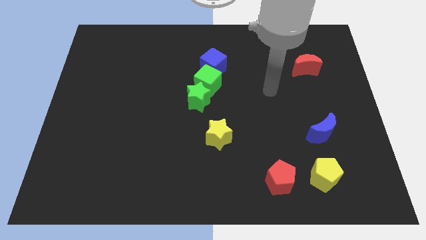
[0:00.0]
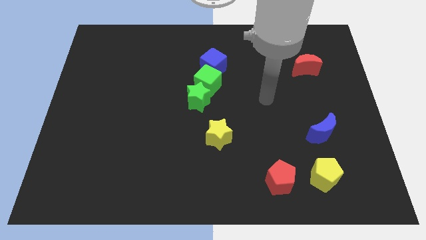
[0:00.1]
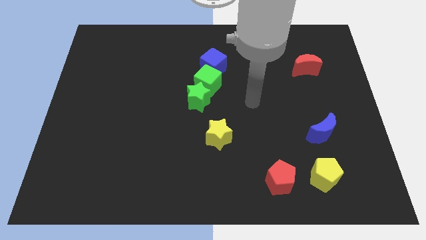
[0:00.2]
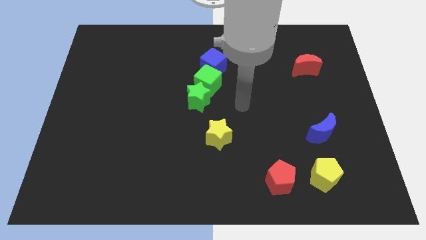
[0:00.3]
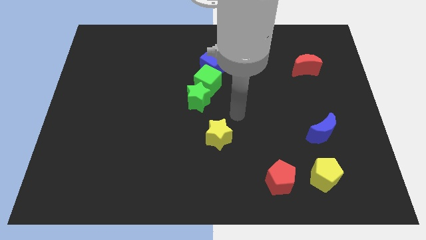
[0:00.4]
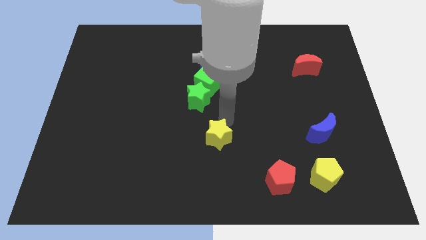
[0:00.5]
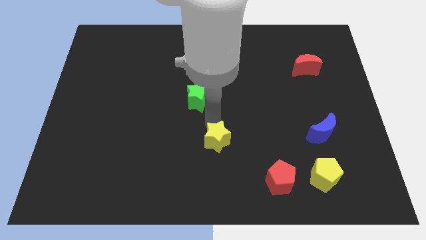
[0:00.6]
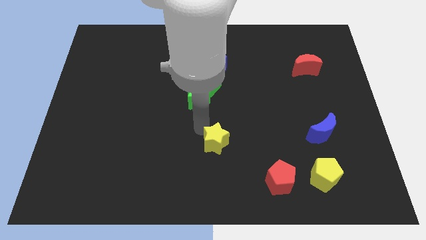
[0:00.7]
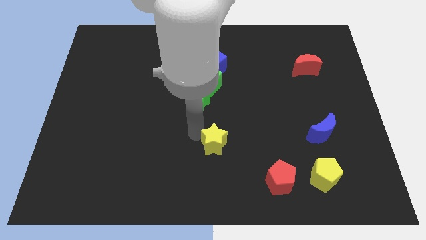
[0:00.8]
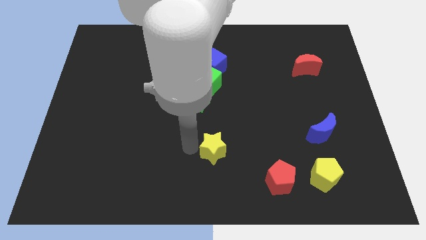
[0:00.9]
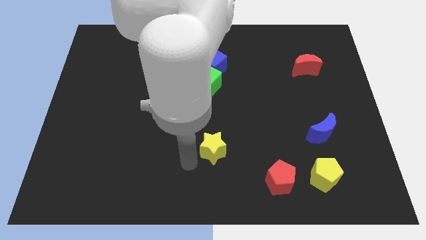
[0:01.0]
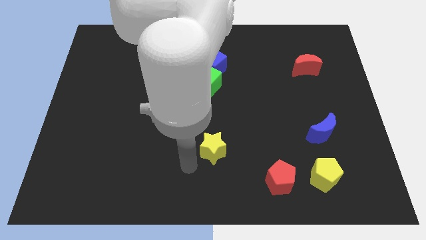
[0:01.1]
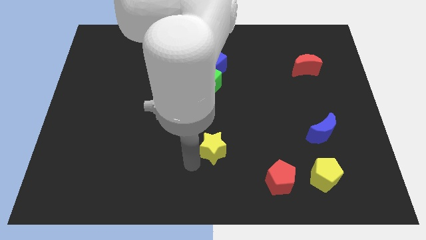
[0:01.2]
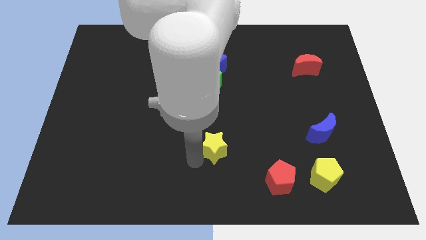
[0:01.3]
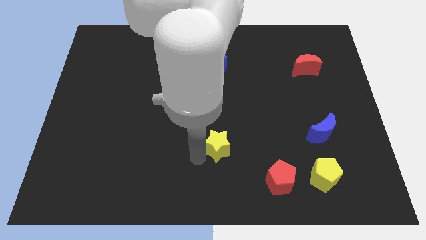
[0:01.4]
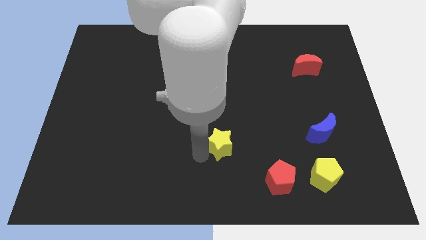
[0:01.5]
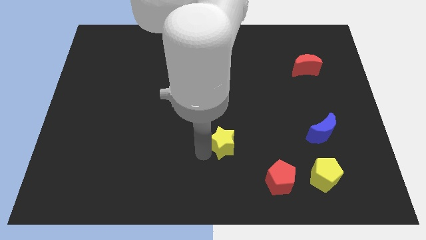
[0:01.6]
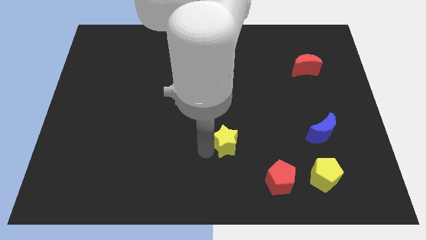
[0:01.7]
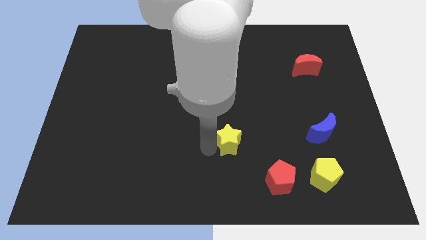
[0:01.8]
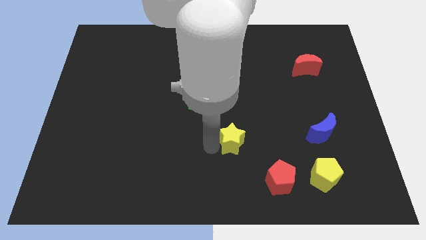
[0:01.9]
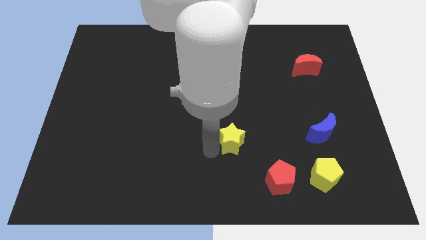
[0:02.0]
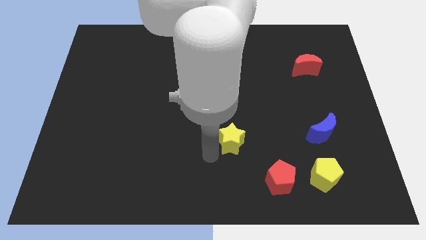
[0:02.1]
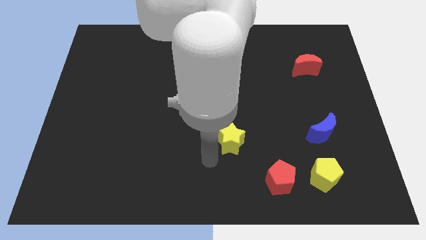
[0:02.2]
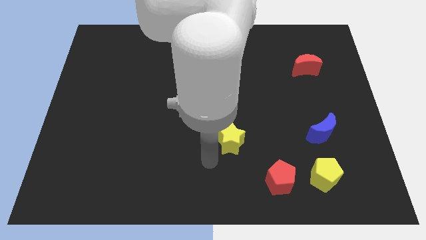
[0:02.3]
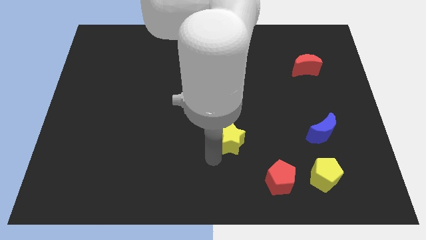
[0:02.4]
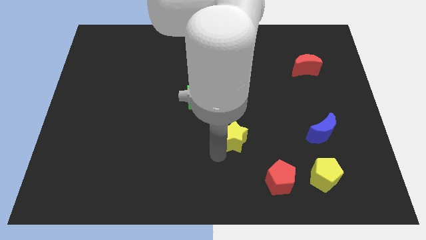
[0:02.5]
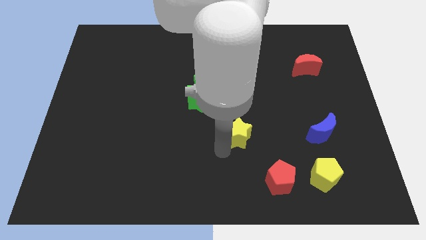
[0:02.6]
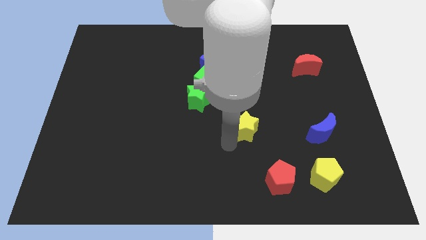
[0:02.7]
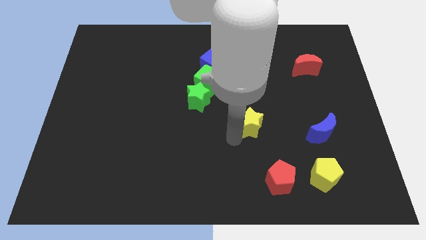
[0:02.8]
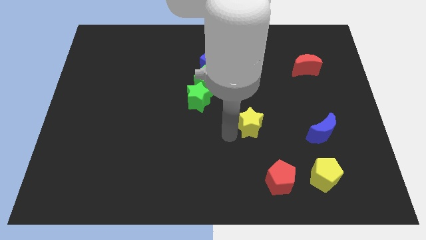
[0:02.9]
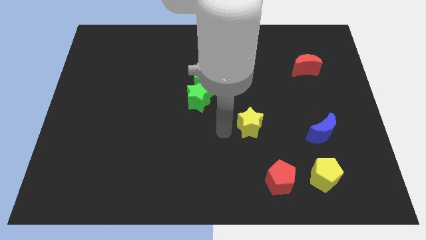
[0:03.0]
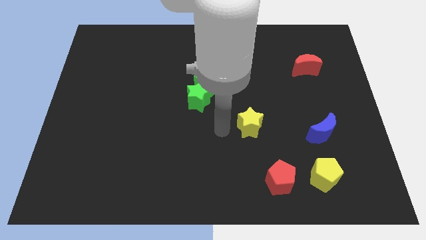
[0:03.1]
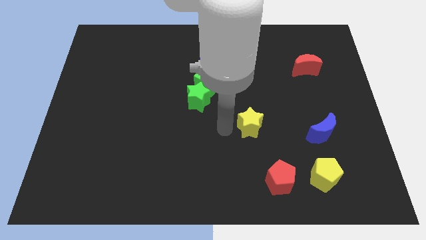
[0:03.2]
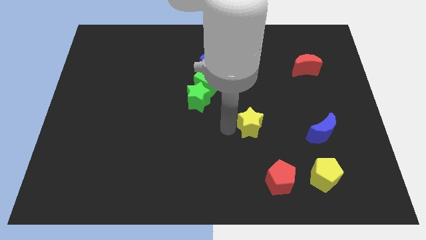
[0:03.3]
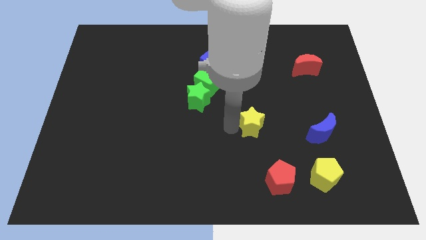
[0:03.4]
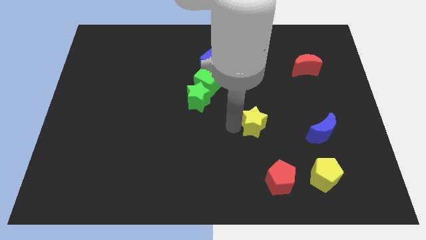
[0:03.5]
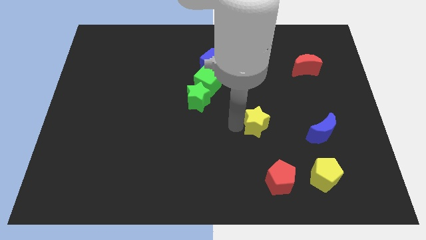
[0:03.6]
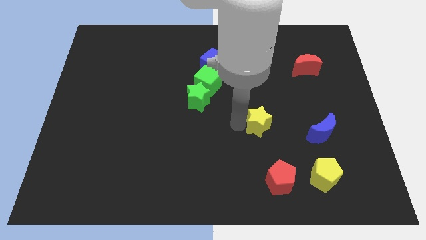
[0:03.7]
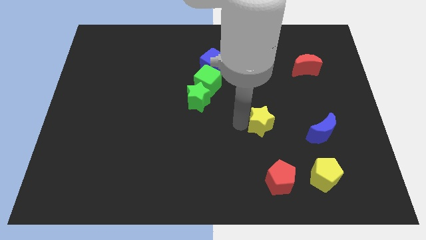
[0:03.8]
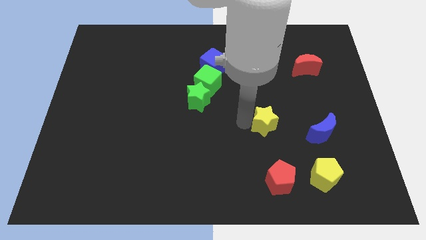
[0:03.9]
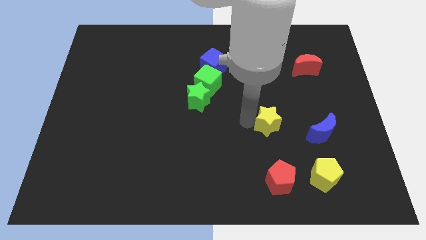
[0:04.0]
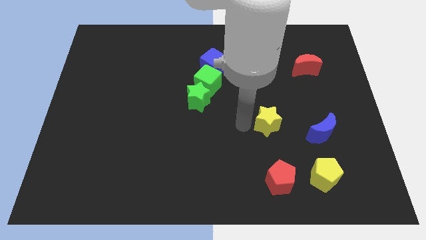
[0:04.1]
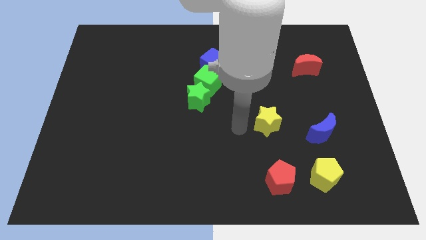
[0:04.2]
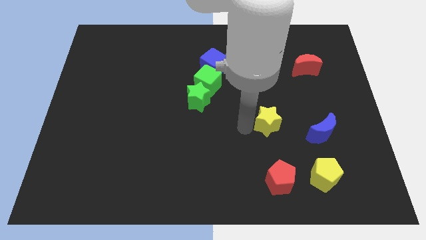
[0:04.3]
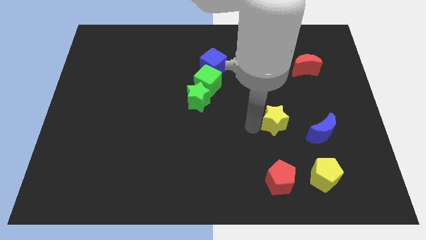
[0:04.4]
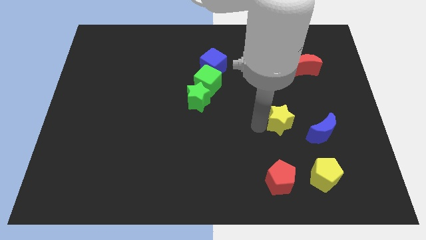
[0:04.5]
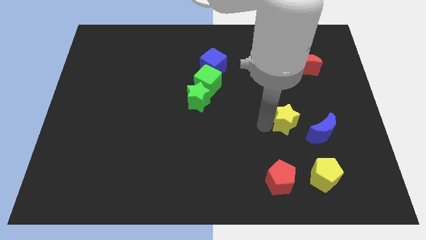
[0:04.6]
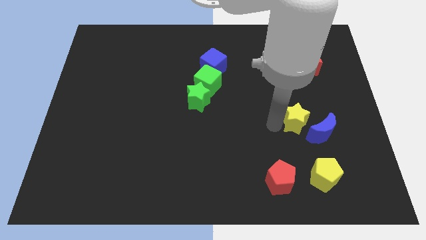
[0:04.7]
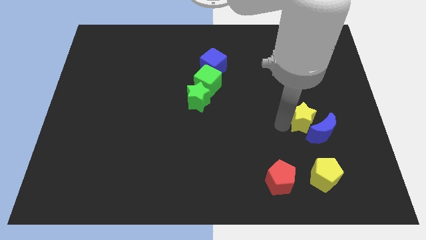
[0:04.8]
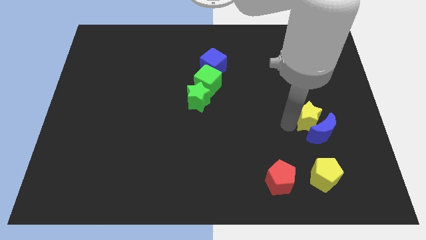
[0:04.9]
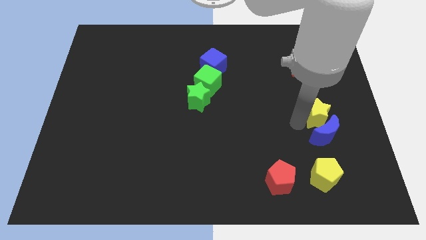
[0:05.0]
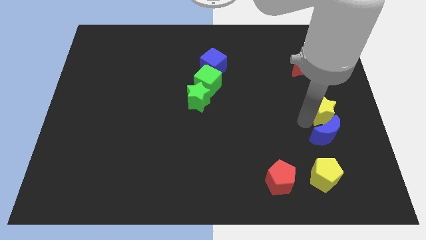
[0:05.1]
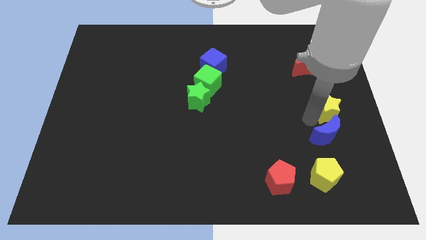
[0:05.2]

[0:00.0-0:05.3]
push the yellow star to the right side

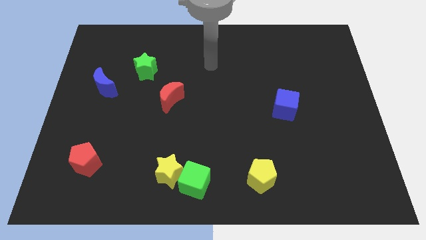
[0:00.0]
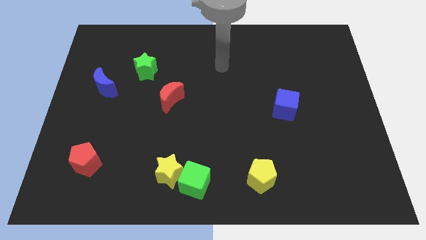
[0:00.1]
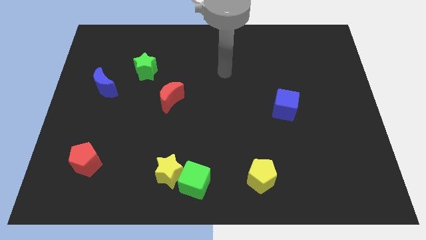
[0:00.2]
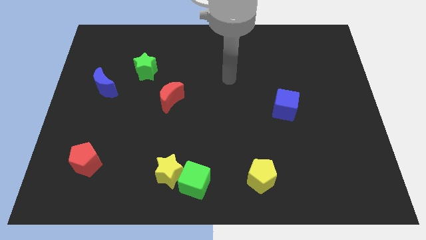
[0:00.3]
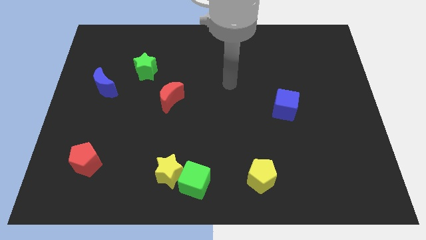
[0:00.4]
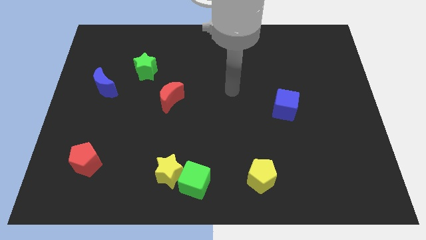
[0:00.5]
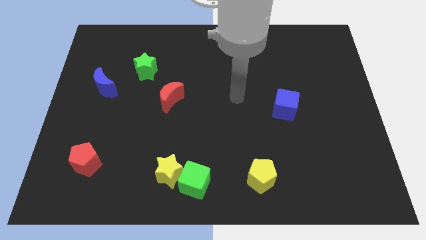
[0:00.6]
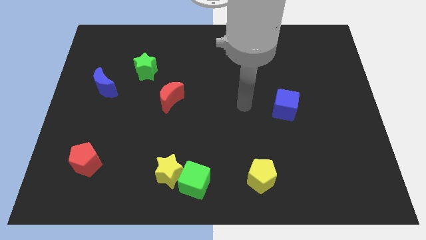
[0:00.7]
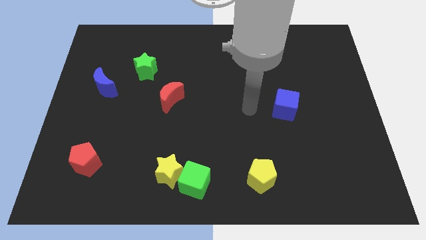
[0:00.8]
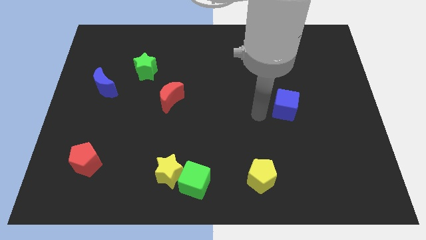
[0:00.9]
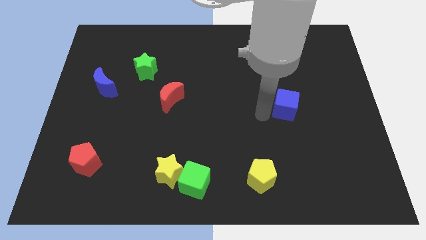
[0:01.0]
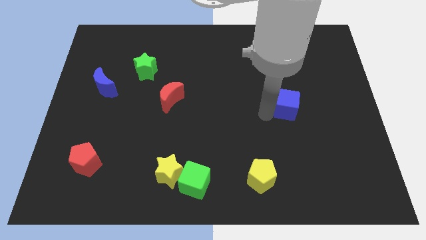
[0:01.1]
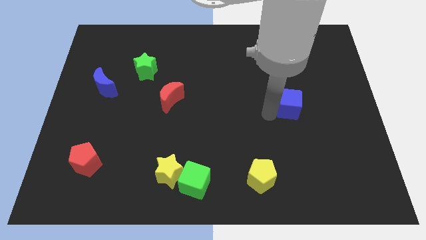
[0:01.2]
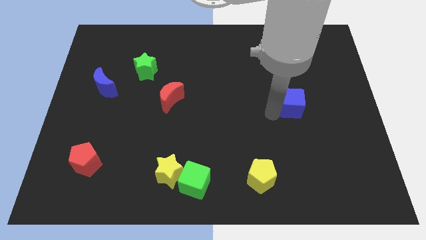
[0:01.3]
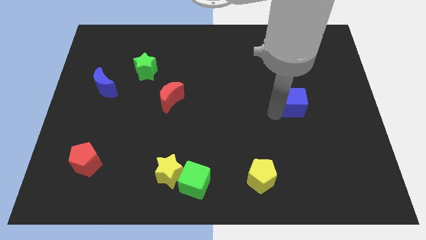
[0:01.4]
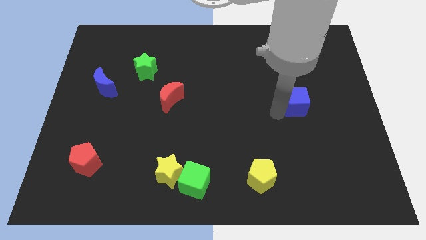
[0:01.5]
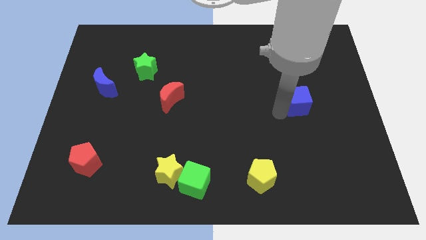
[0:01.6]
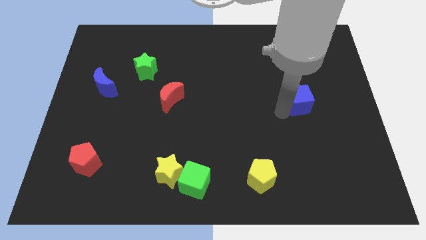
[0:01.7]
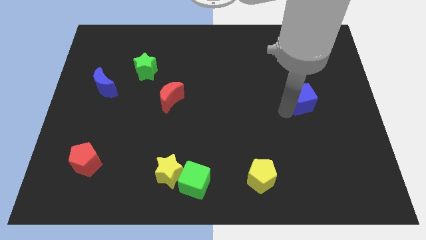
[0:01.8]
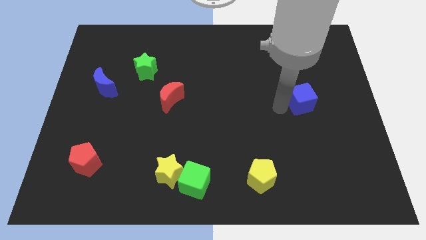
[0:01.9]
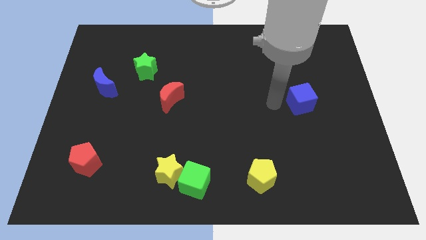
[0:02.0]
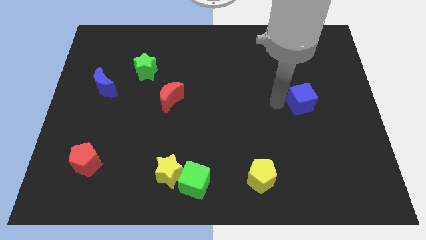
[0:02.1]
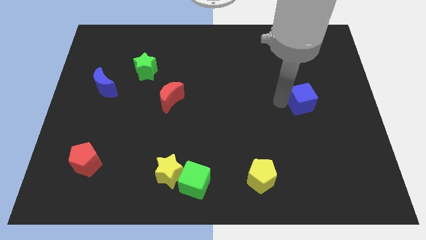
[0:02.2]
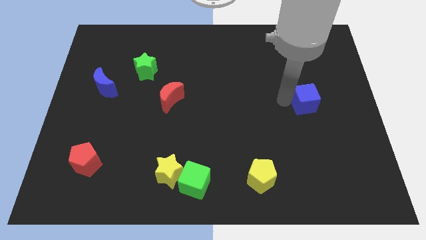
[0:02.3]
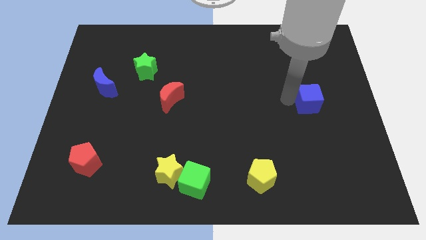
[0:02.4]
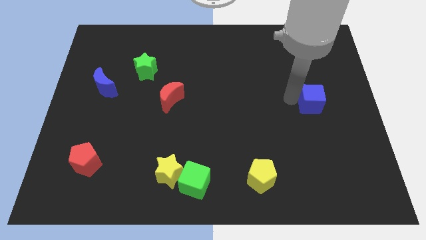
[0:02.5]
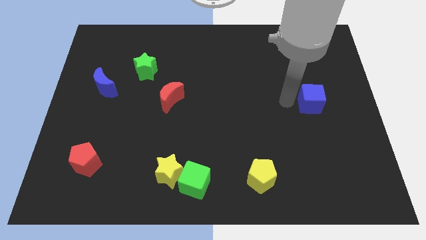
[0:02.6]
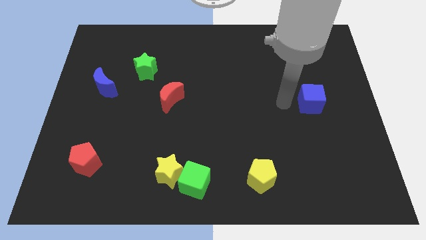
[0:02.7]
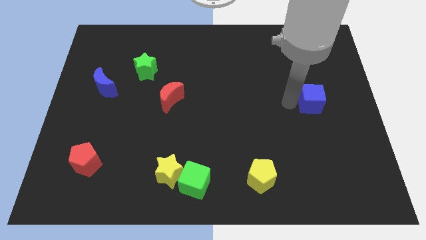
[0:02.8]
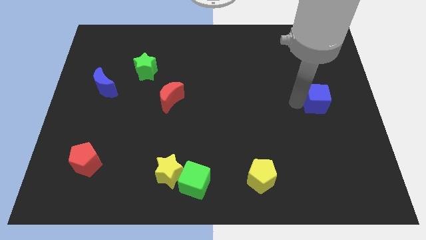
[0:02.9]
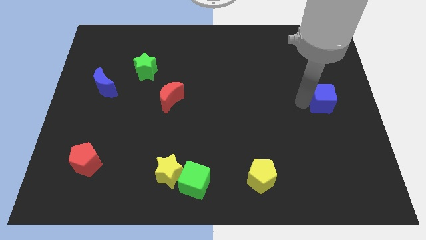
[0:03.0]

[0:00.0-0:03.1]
move the blue cube to the right side
